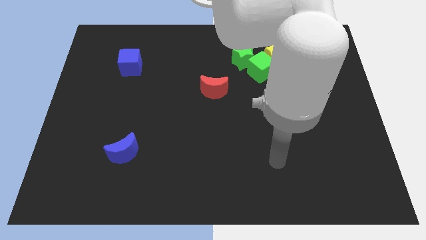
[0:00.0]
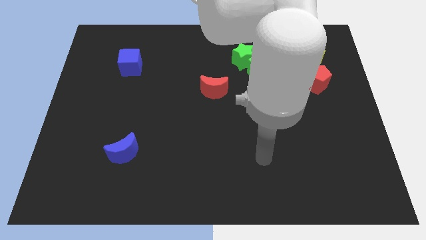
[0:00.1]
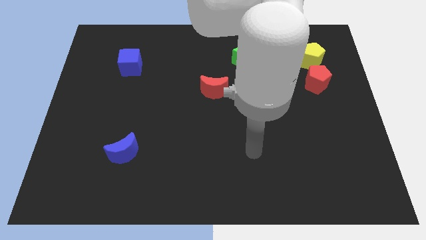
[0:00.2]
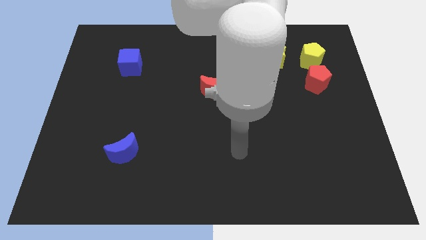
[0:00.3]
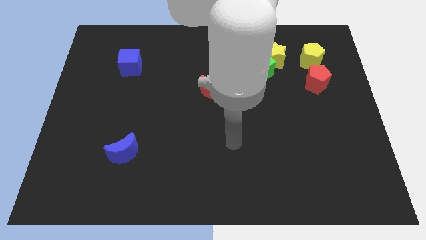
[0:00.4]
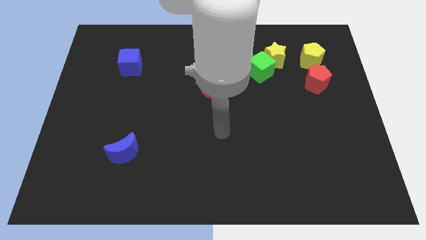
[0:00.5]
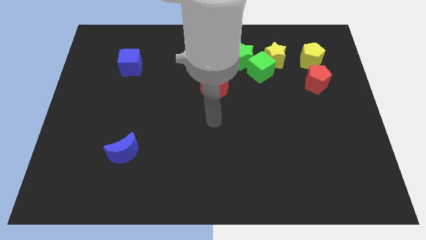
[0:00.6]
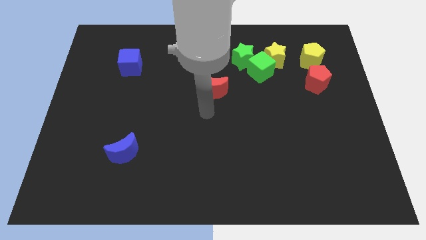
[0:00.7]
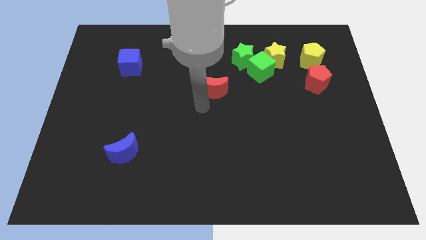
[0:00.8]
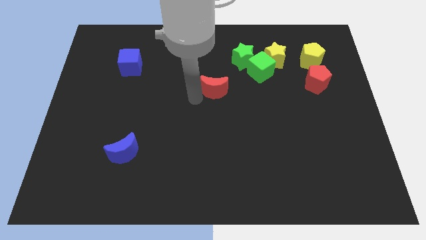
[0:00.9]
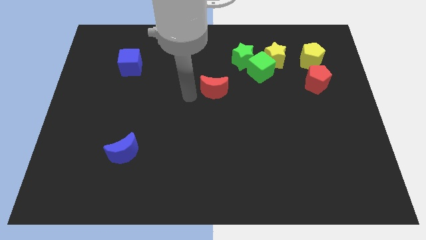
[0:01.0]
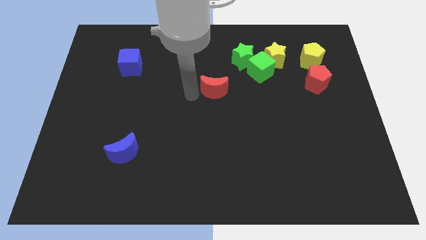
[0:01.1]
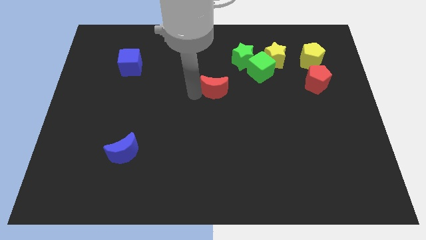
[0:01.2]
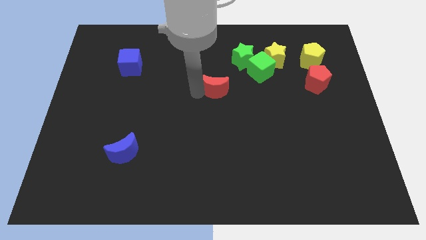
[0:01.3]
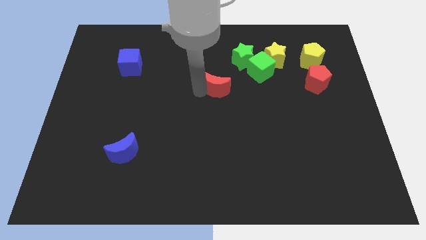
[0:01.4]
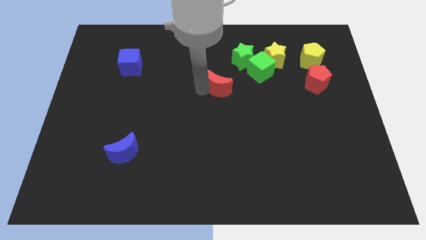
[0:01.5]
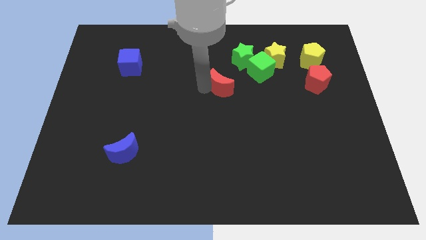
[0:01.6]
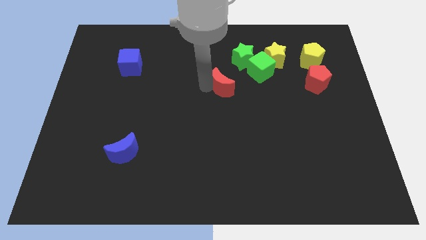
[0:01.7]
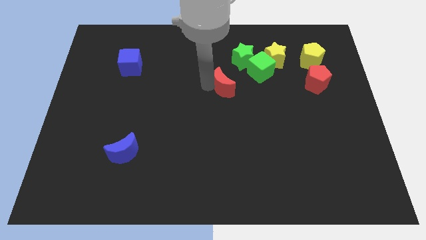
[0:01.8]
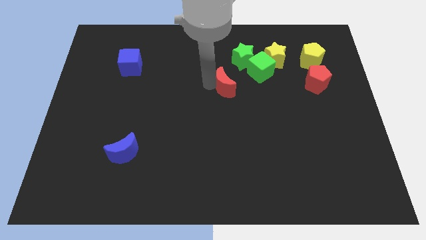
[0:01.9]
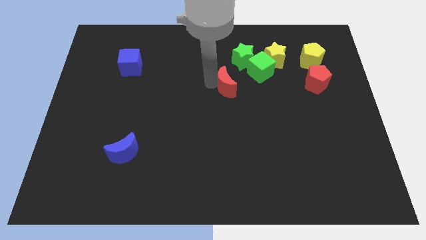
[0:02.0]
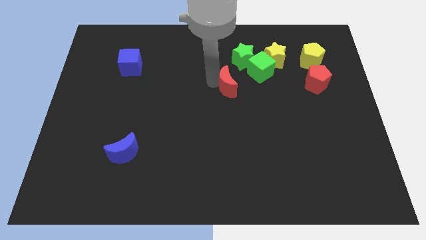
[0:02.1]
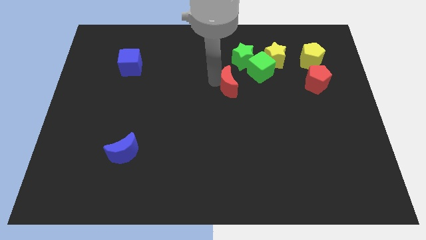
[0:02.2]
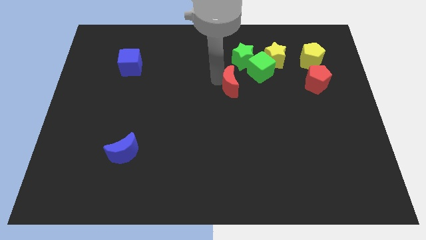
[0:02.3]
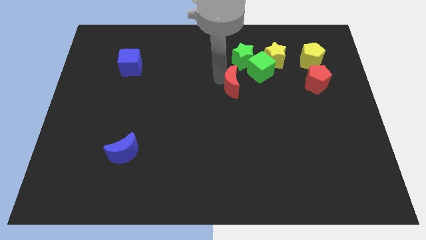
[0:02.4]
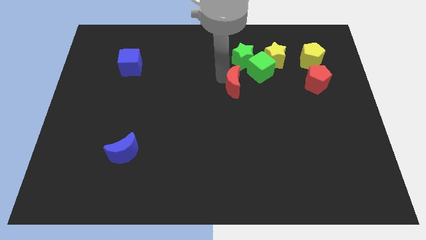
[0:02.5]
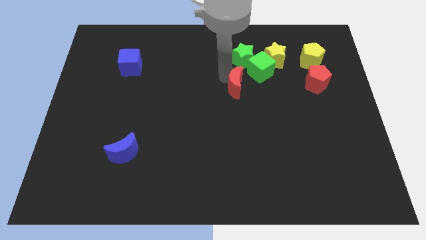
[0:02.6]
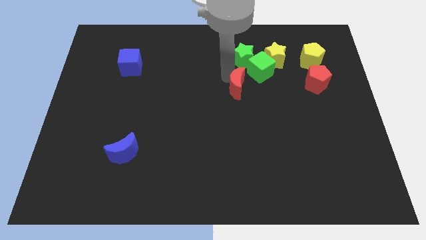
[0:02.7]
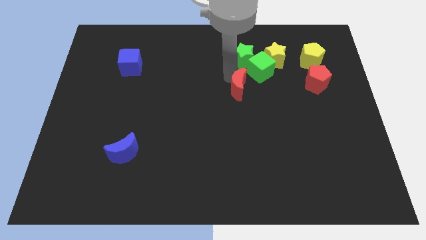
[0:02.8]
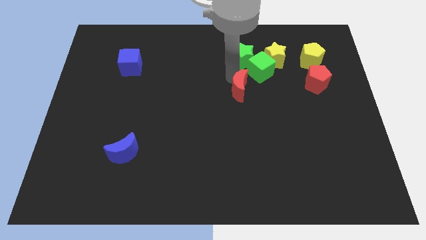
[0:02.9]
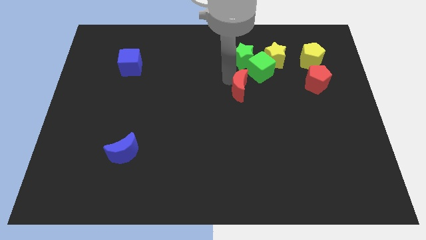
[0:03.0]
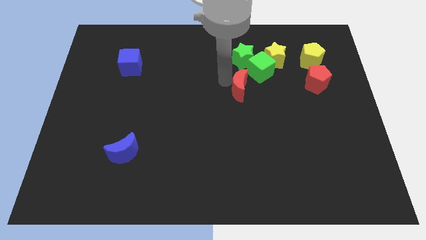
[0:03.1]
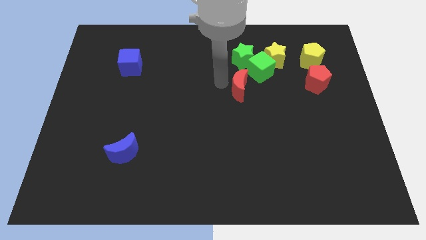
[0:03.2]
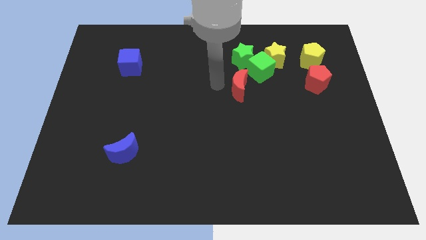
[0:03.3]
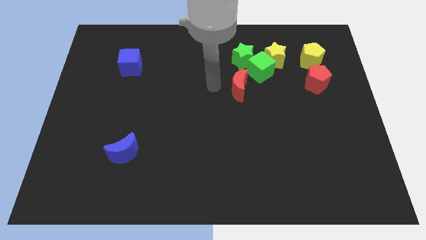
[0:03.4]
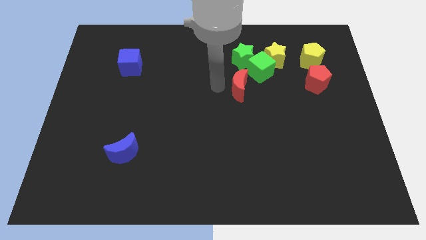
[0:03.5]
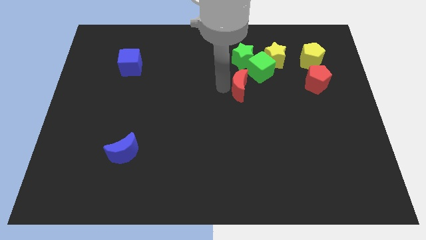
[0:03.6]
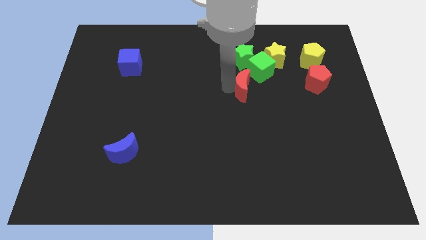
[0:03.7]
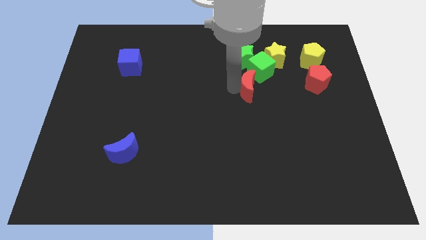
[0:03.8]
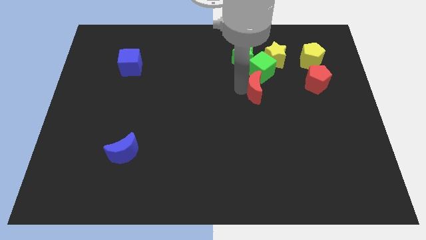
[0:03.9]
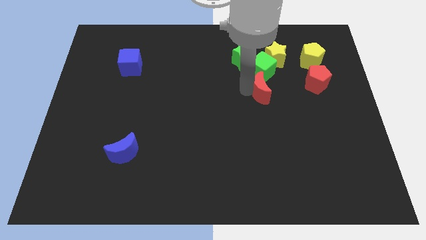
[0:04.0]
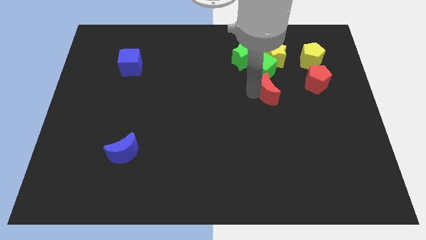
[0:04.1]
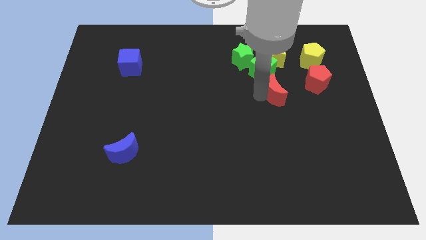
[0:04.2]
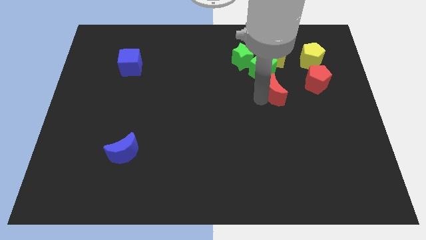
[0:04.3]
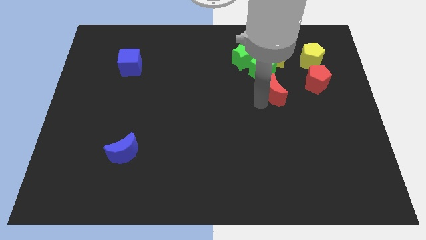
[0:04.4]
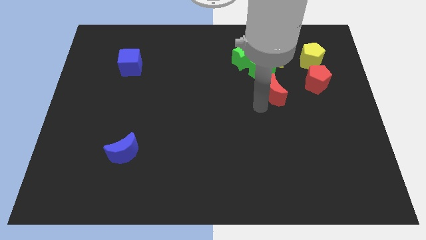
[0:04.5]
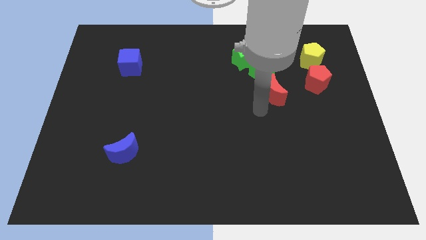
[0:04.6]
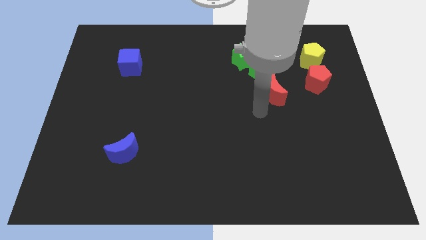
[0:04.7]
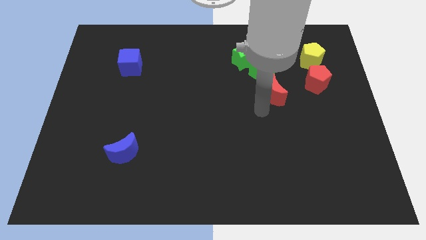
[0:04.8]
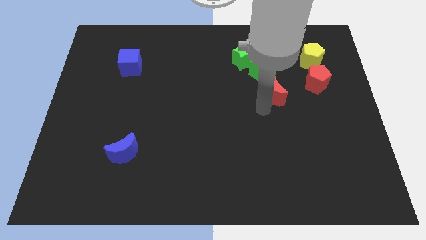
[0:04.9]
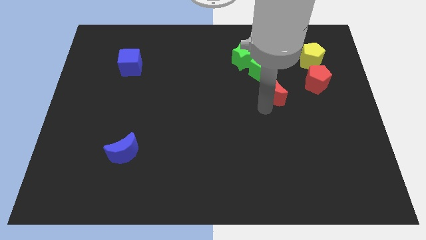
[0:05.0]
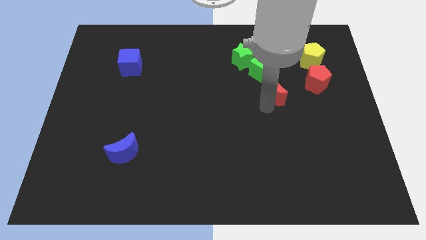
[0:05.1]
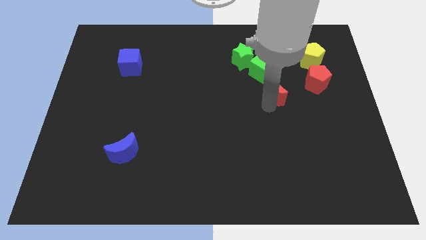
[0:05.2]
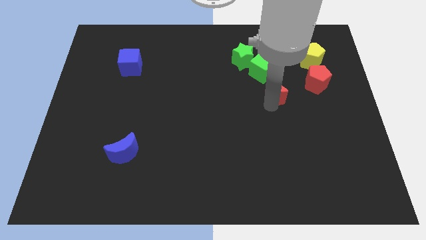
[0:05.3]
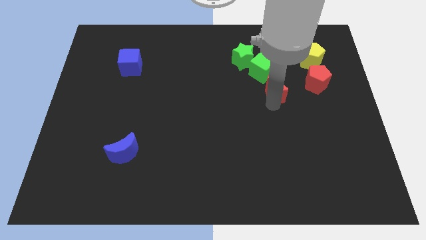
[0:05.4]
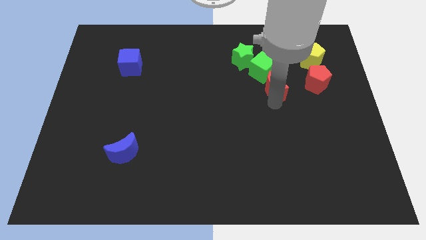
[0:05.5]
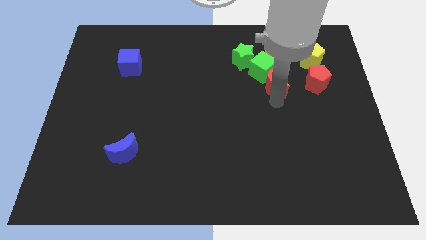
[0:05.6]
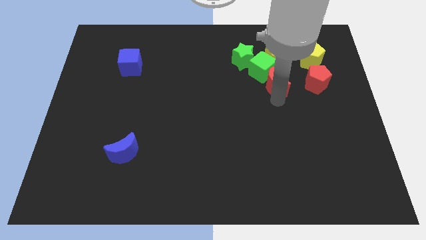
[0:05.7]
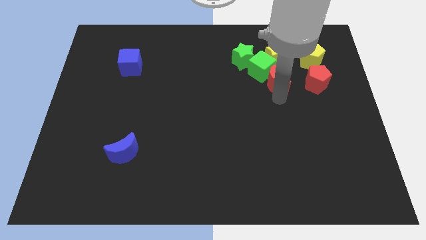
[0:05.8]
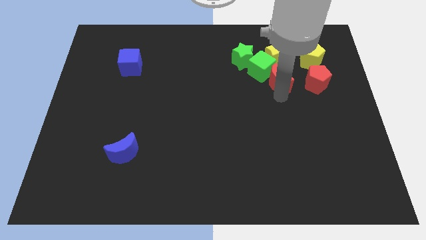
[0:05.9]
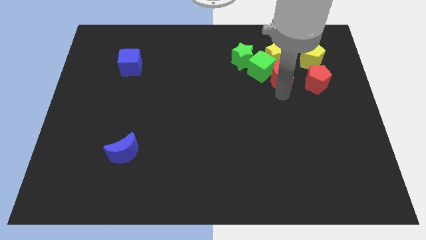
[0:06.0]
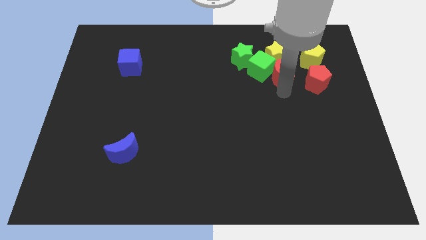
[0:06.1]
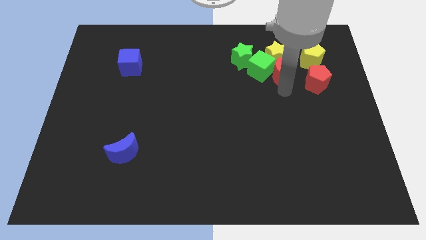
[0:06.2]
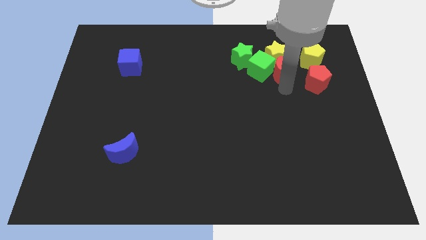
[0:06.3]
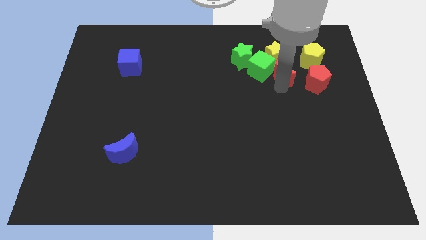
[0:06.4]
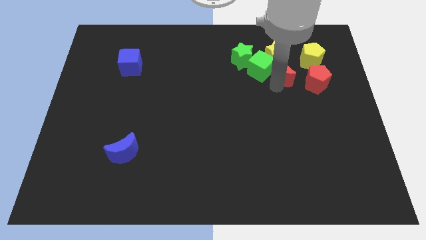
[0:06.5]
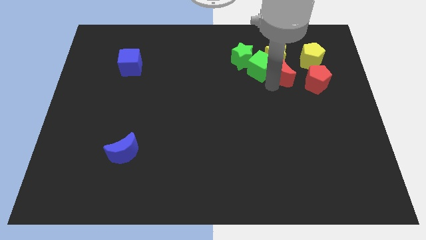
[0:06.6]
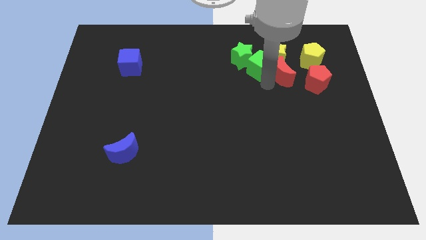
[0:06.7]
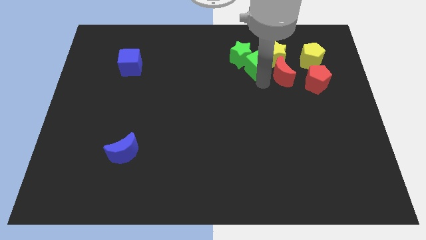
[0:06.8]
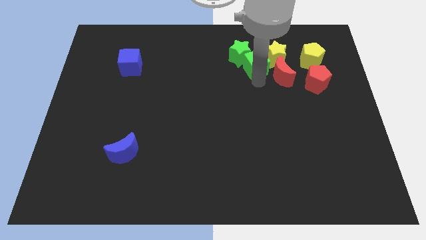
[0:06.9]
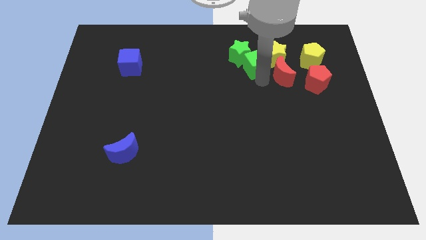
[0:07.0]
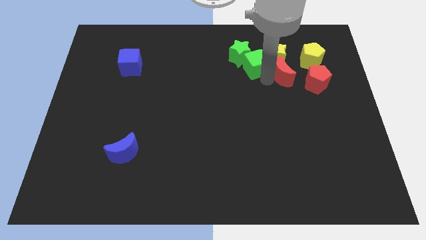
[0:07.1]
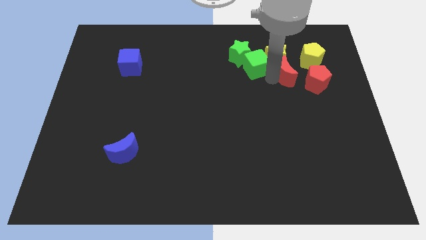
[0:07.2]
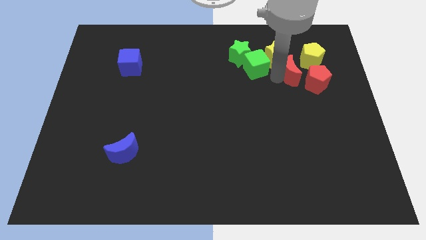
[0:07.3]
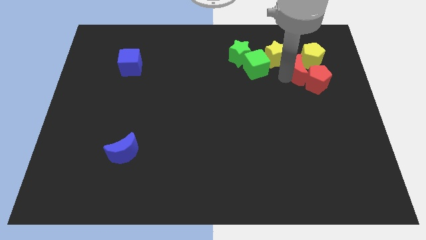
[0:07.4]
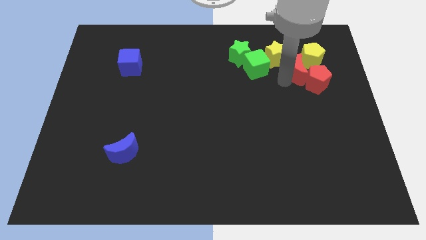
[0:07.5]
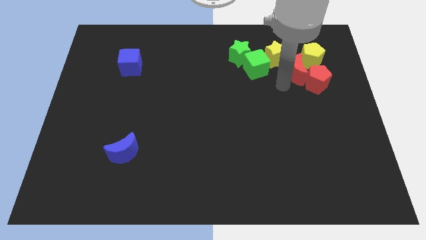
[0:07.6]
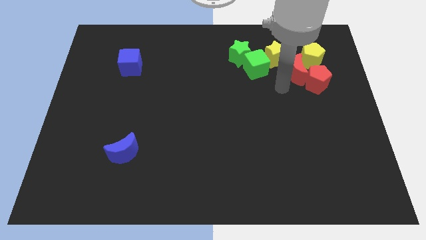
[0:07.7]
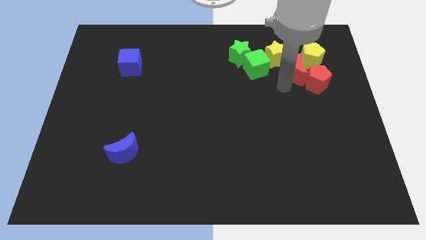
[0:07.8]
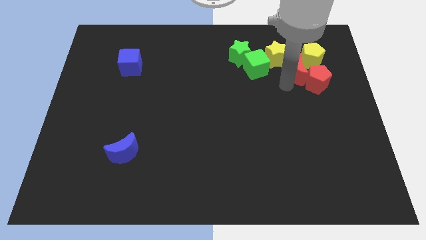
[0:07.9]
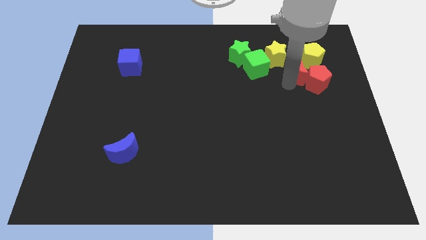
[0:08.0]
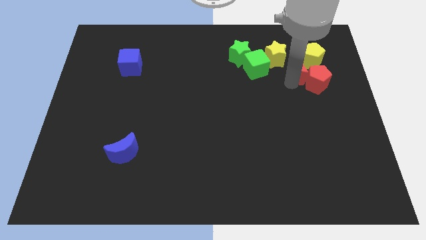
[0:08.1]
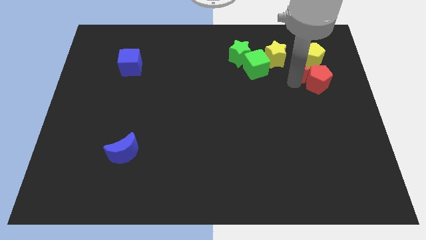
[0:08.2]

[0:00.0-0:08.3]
slide the red moon towards the yellow pentagon
